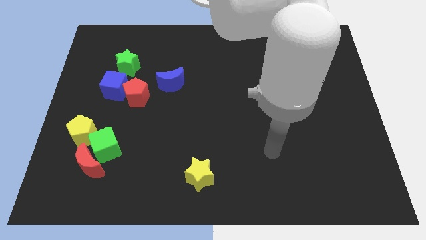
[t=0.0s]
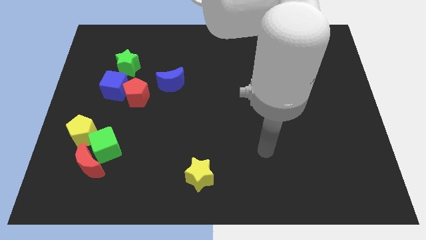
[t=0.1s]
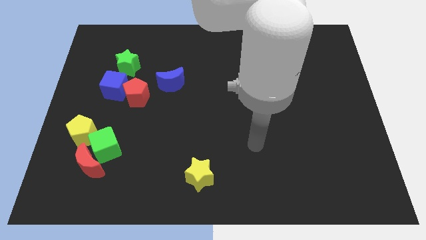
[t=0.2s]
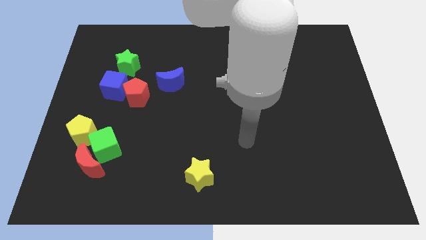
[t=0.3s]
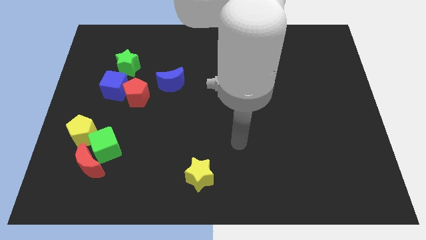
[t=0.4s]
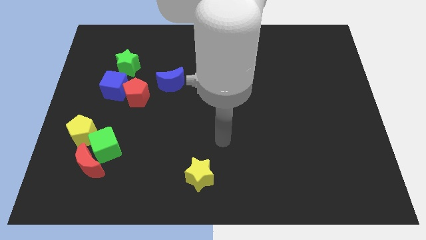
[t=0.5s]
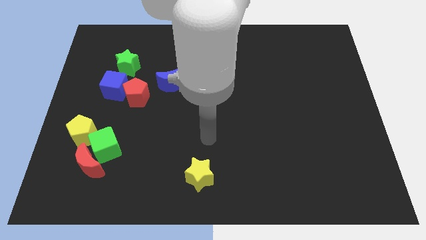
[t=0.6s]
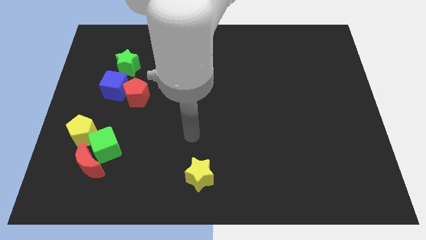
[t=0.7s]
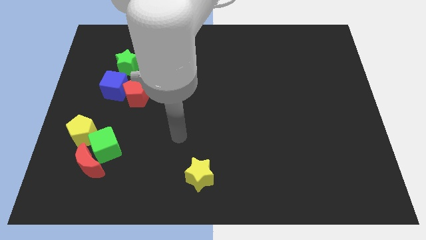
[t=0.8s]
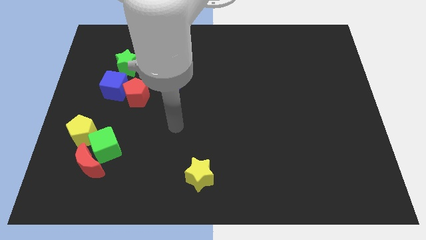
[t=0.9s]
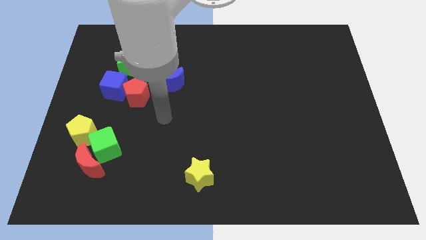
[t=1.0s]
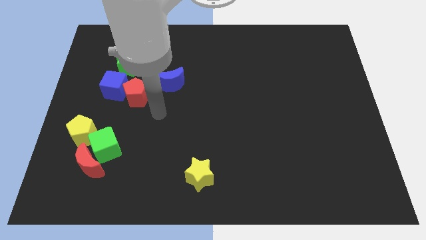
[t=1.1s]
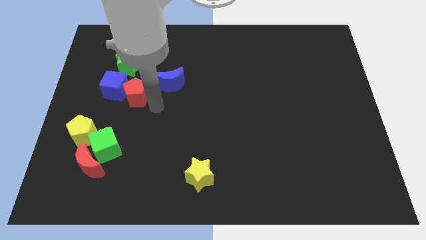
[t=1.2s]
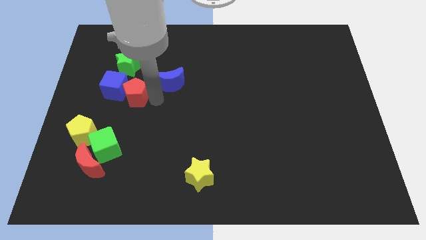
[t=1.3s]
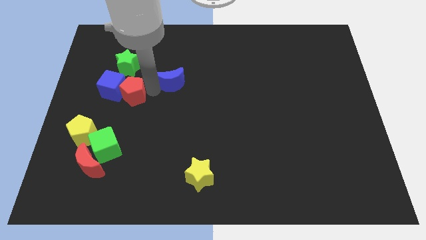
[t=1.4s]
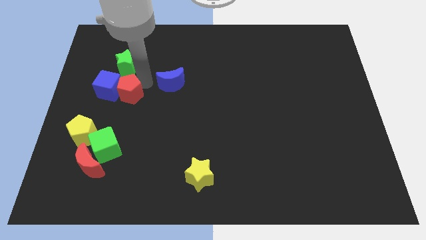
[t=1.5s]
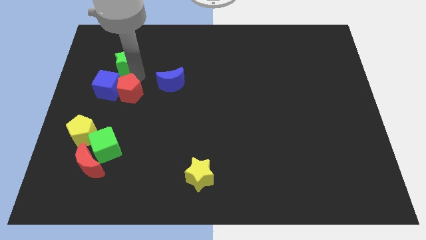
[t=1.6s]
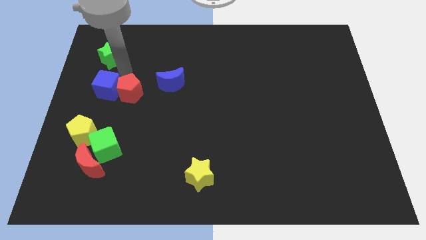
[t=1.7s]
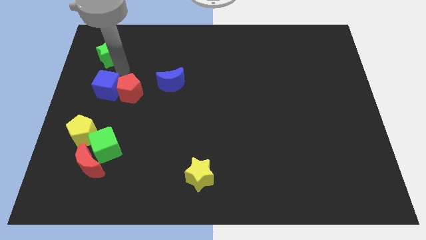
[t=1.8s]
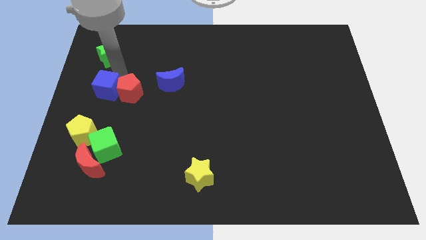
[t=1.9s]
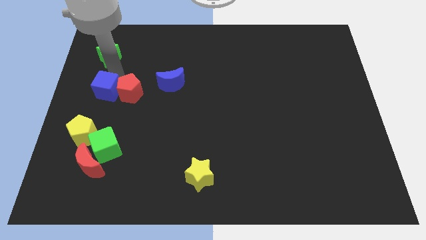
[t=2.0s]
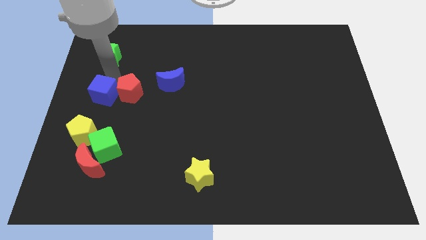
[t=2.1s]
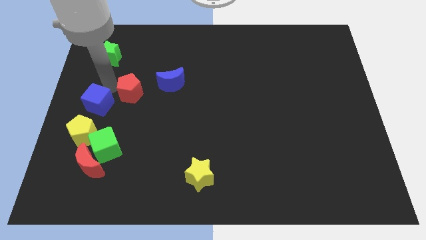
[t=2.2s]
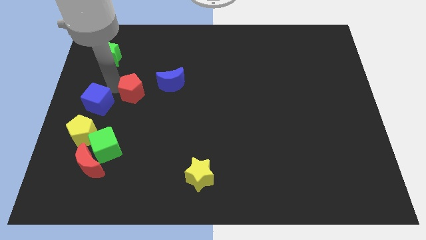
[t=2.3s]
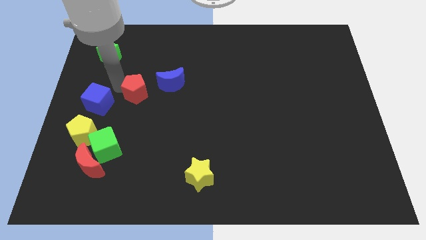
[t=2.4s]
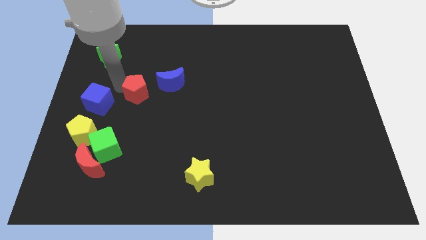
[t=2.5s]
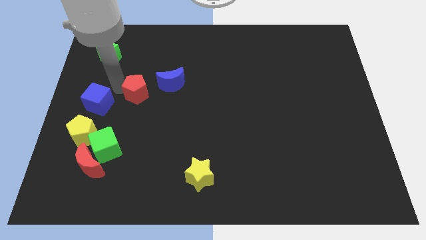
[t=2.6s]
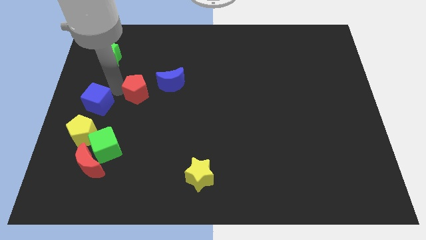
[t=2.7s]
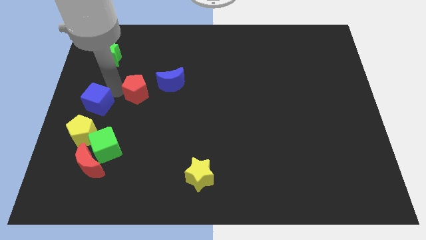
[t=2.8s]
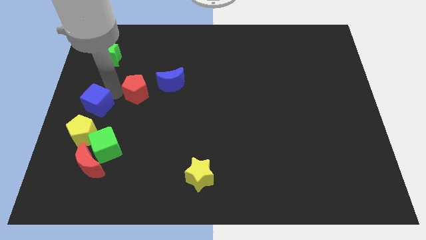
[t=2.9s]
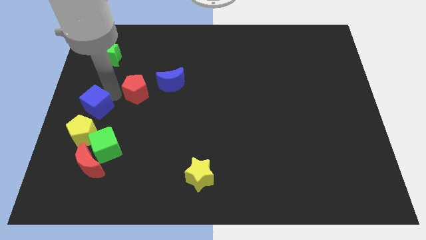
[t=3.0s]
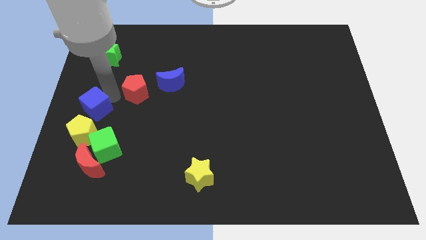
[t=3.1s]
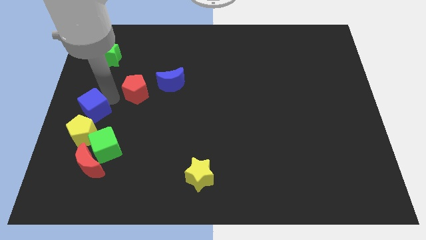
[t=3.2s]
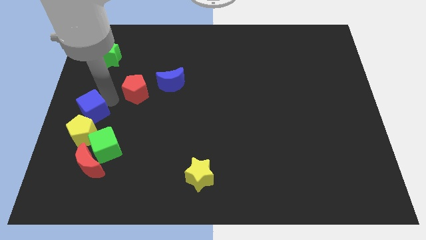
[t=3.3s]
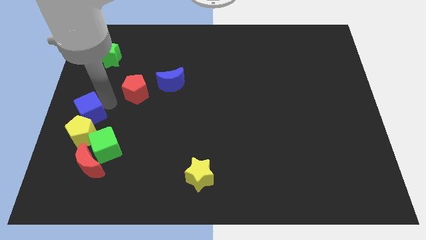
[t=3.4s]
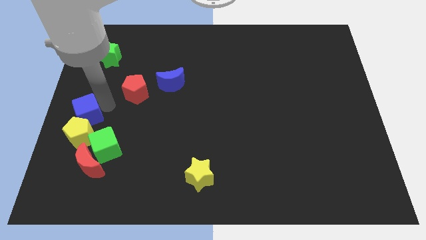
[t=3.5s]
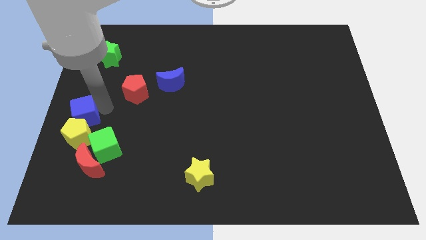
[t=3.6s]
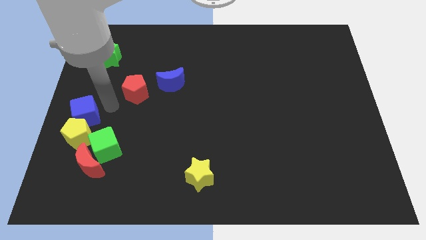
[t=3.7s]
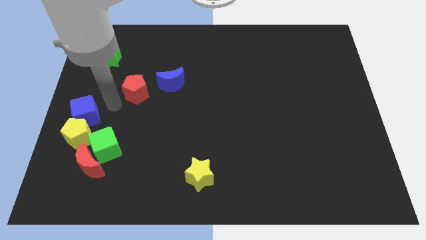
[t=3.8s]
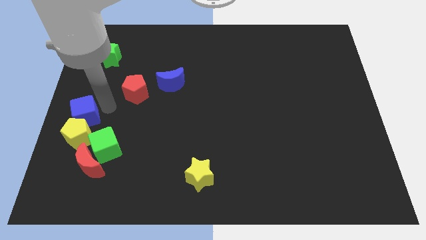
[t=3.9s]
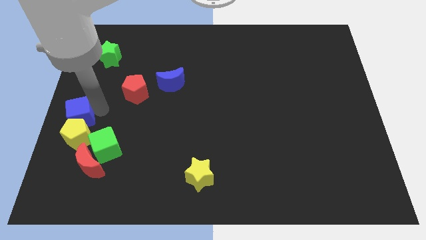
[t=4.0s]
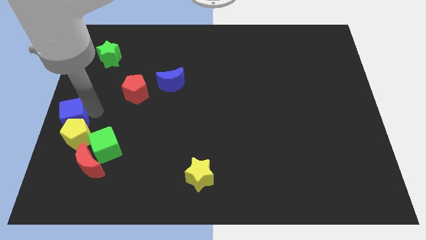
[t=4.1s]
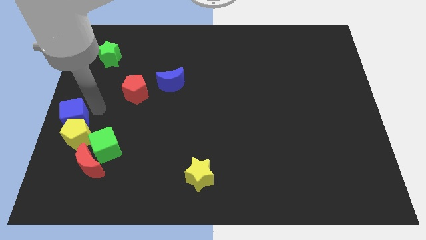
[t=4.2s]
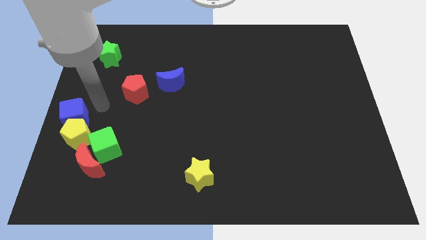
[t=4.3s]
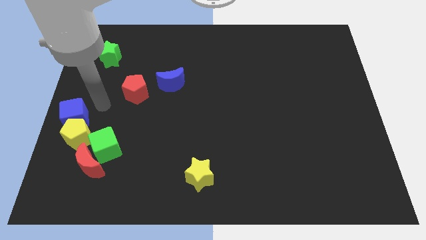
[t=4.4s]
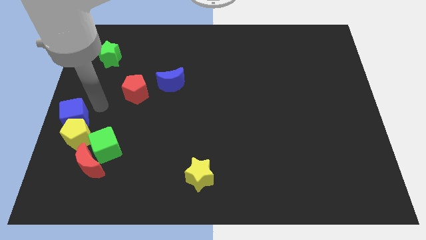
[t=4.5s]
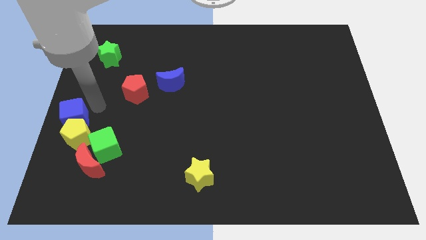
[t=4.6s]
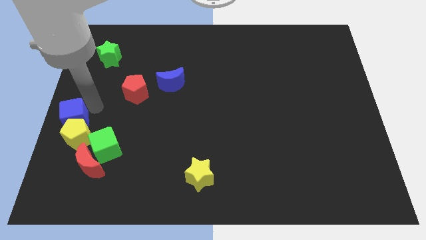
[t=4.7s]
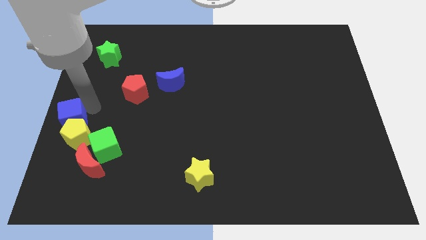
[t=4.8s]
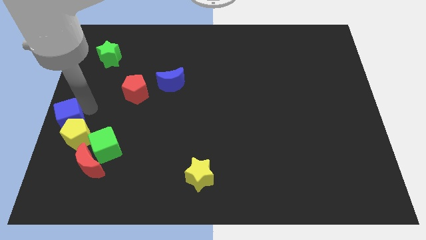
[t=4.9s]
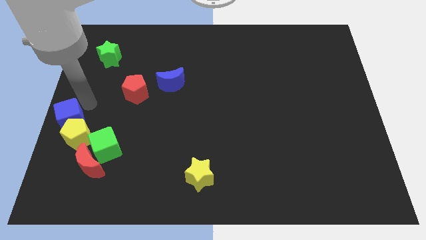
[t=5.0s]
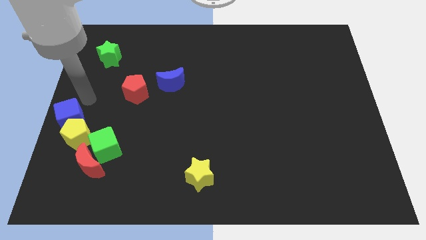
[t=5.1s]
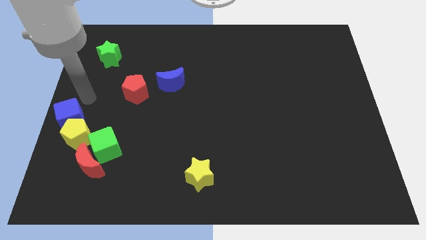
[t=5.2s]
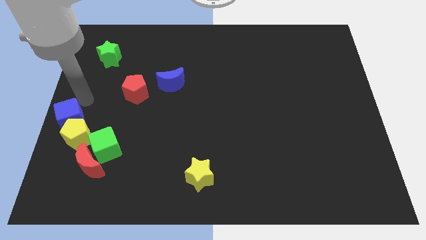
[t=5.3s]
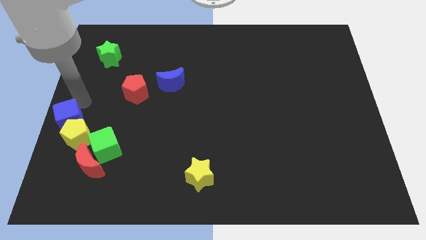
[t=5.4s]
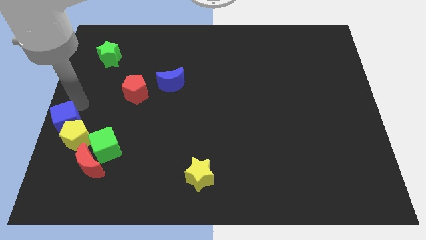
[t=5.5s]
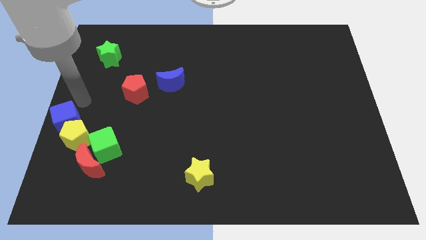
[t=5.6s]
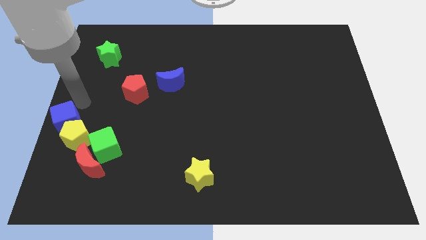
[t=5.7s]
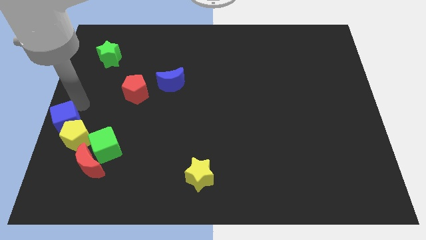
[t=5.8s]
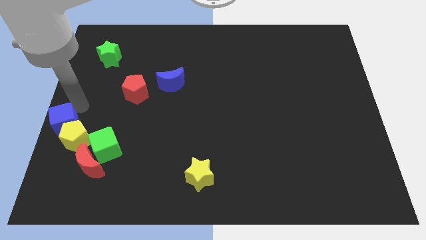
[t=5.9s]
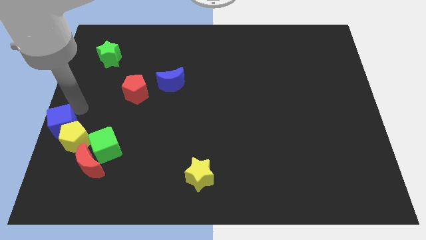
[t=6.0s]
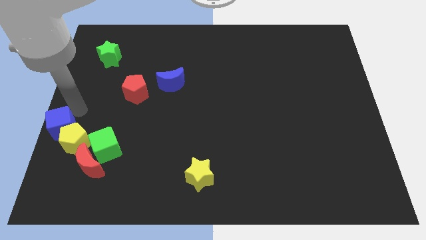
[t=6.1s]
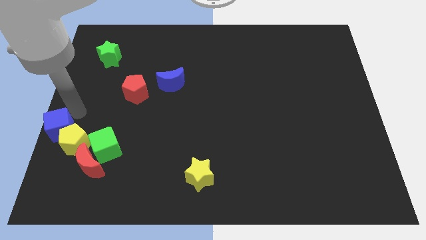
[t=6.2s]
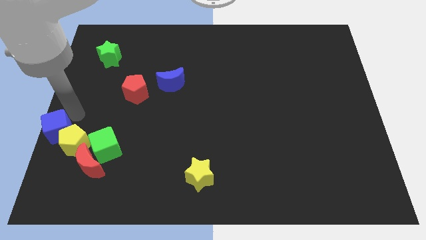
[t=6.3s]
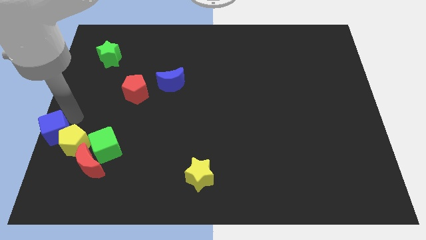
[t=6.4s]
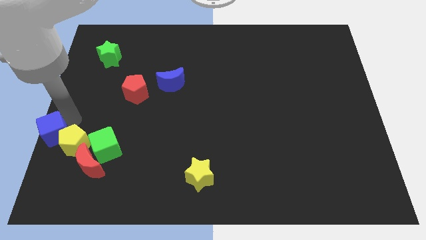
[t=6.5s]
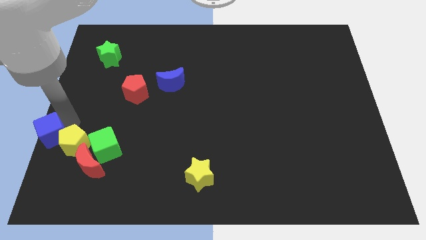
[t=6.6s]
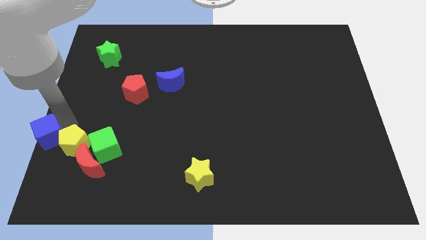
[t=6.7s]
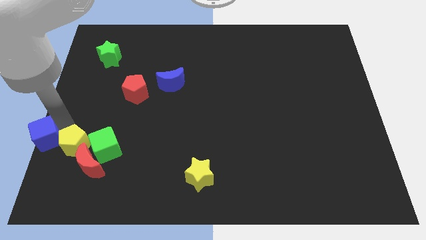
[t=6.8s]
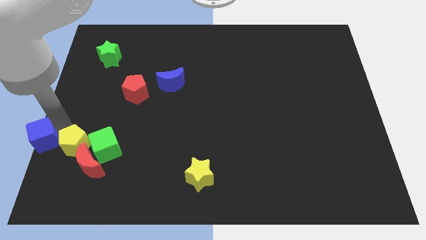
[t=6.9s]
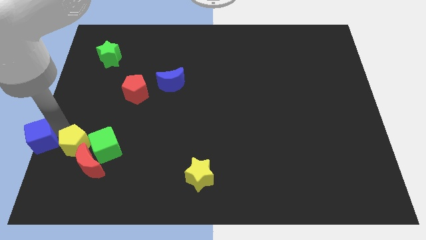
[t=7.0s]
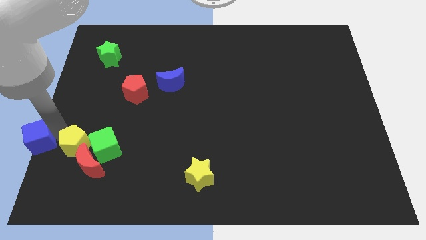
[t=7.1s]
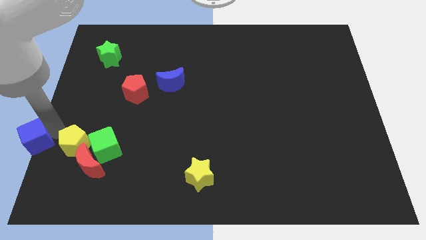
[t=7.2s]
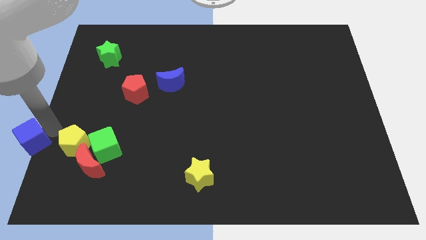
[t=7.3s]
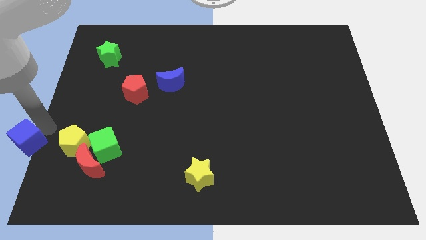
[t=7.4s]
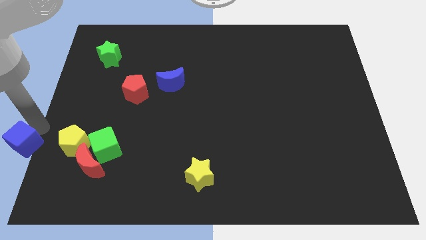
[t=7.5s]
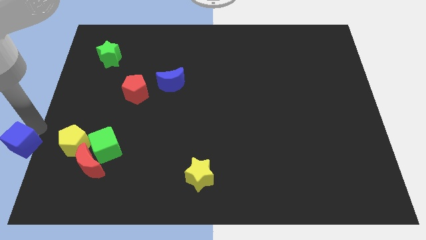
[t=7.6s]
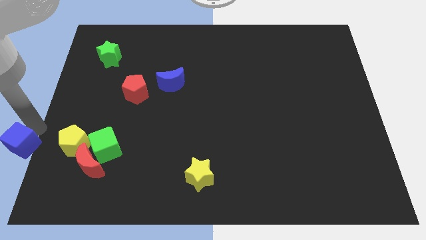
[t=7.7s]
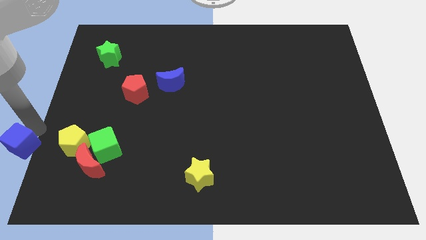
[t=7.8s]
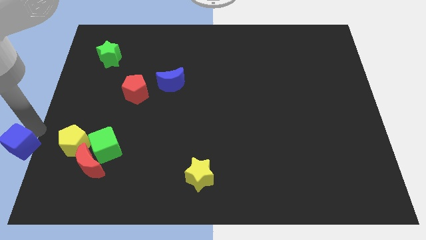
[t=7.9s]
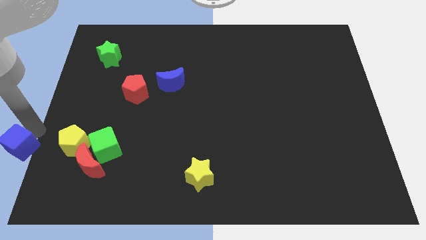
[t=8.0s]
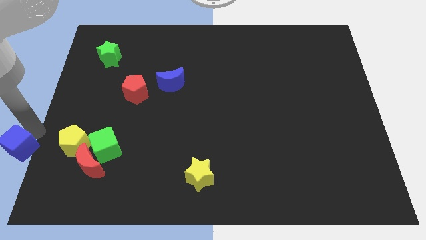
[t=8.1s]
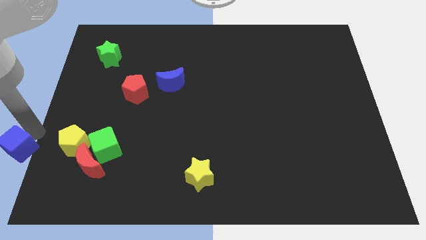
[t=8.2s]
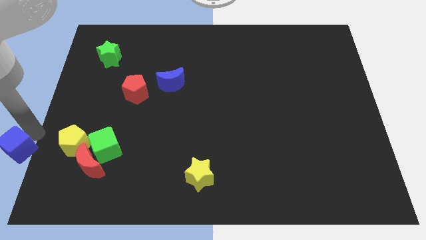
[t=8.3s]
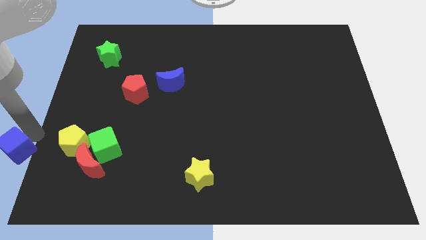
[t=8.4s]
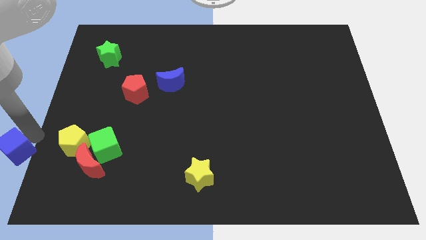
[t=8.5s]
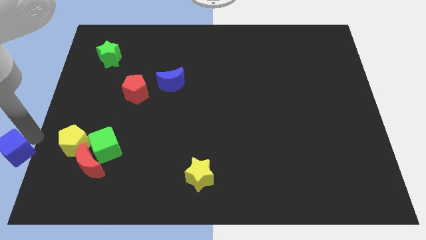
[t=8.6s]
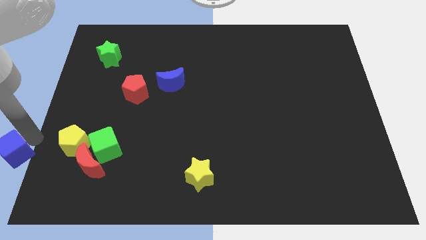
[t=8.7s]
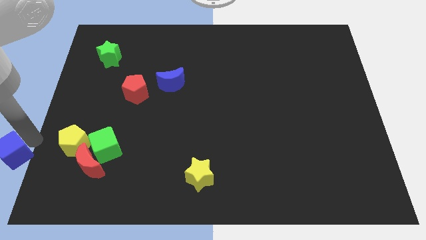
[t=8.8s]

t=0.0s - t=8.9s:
move the blue cube to the bottom left corner
